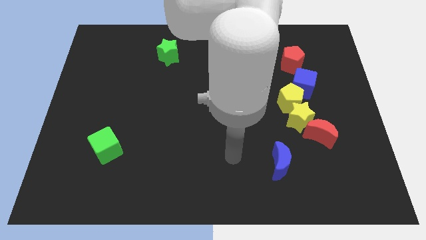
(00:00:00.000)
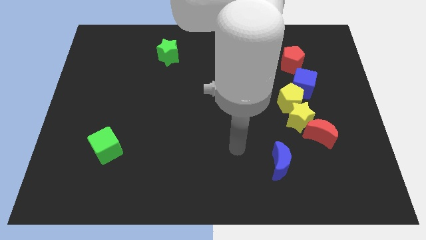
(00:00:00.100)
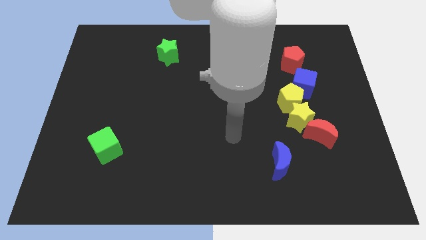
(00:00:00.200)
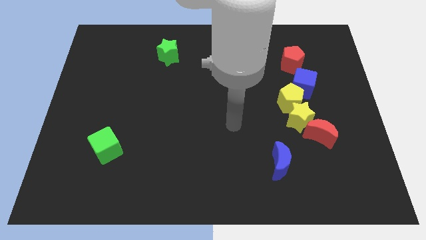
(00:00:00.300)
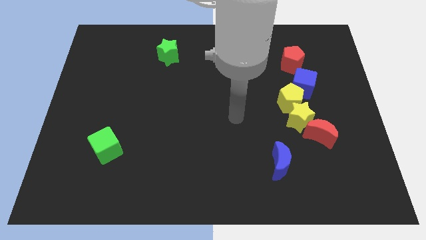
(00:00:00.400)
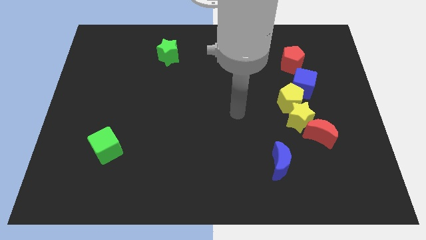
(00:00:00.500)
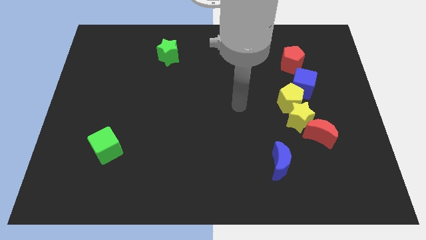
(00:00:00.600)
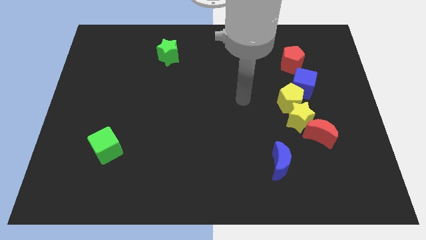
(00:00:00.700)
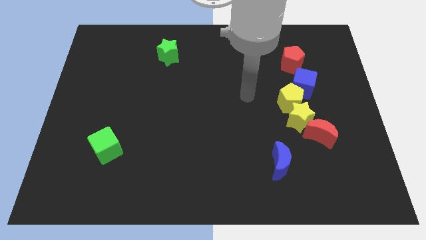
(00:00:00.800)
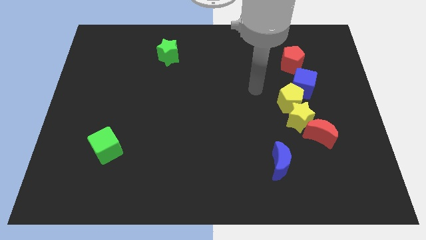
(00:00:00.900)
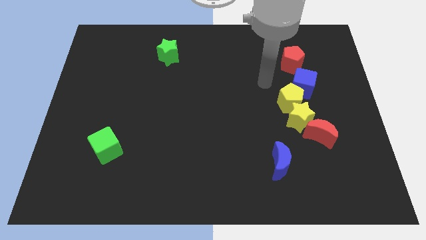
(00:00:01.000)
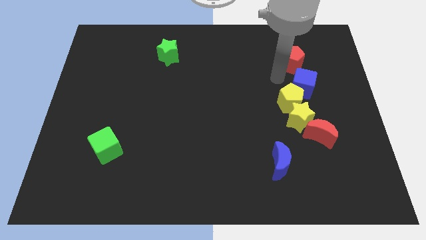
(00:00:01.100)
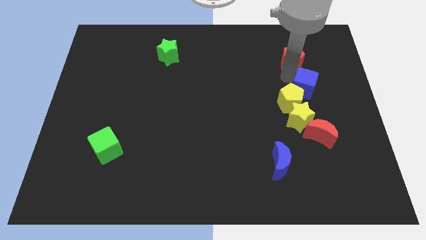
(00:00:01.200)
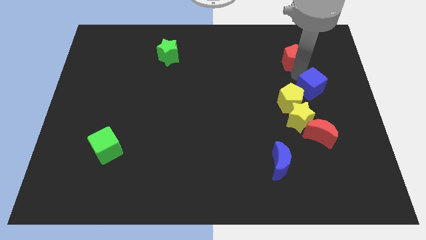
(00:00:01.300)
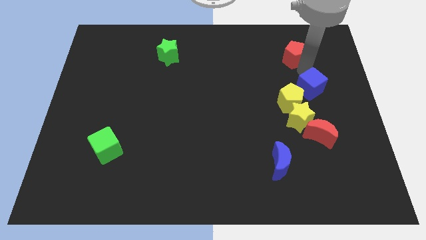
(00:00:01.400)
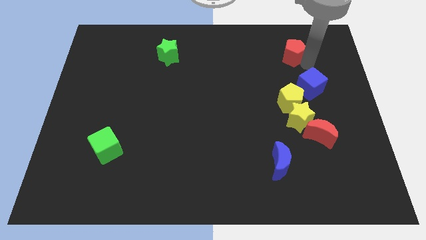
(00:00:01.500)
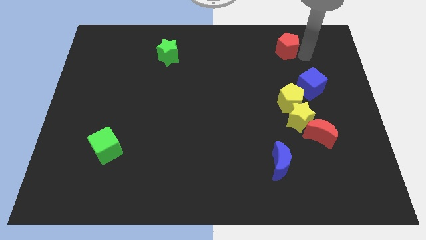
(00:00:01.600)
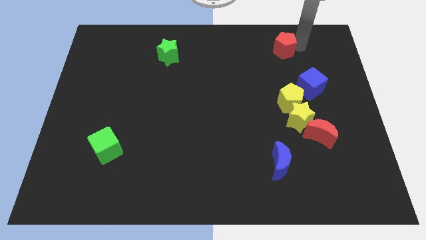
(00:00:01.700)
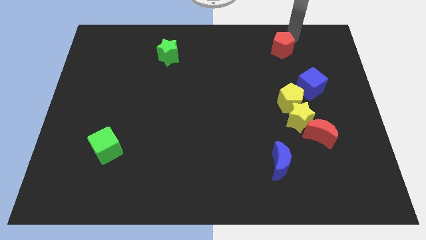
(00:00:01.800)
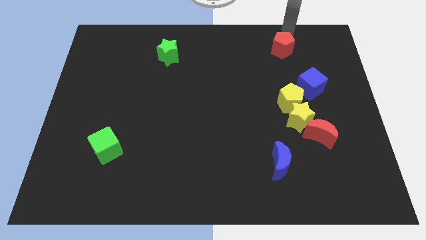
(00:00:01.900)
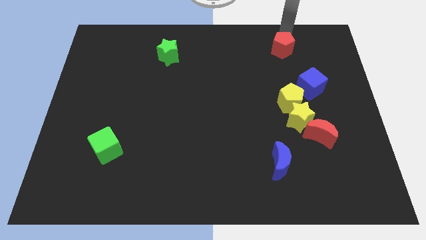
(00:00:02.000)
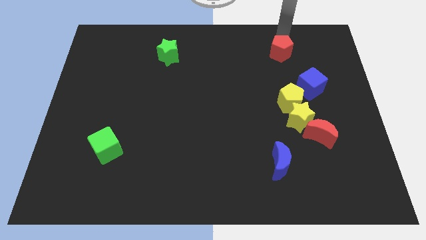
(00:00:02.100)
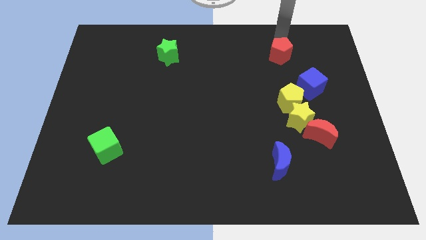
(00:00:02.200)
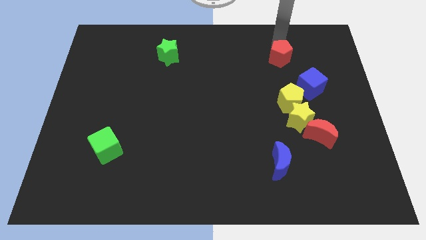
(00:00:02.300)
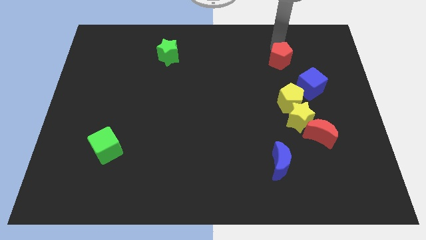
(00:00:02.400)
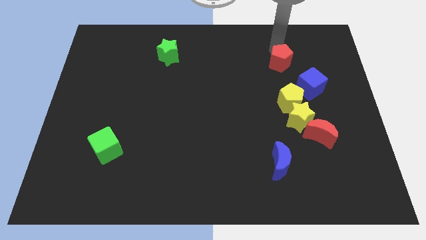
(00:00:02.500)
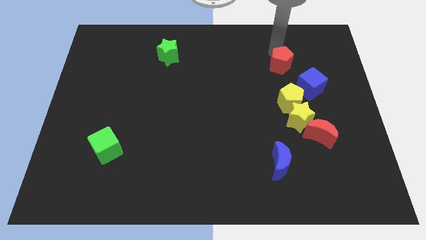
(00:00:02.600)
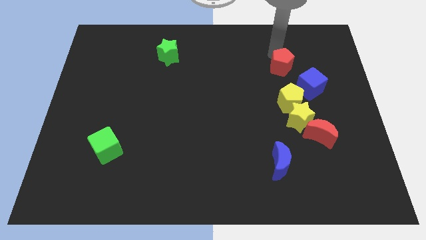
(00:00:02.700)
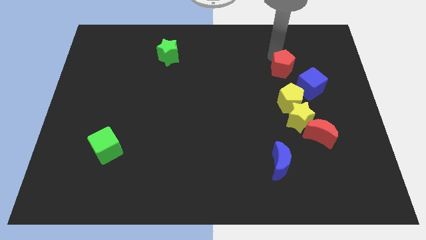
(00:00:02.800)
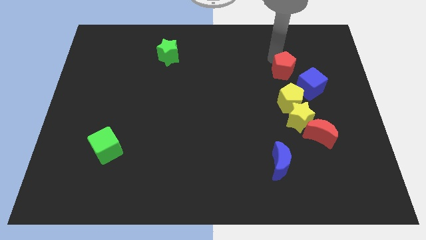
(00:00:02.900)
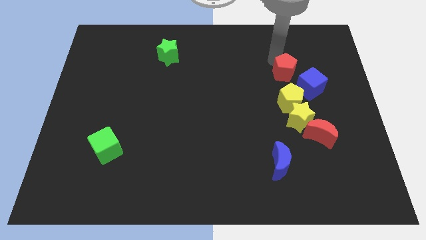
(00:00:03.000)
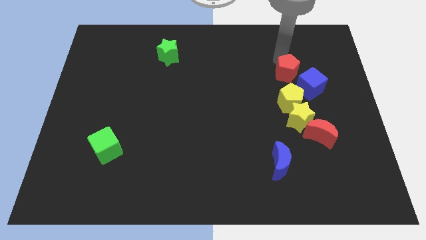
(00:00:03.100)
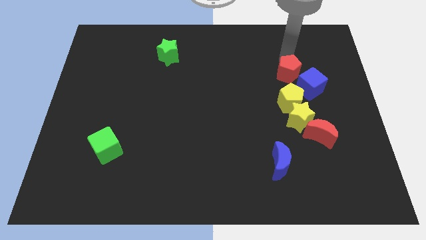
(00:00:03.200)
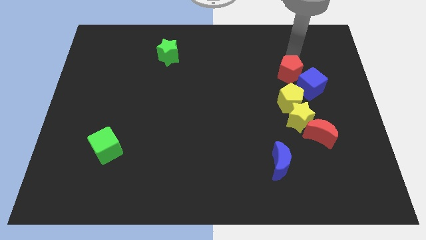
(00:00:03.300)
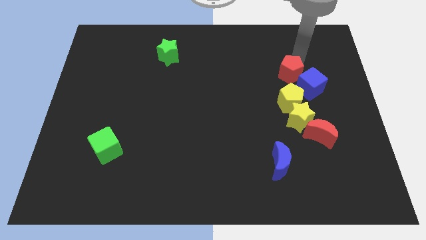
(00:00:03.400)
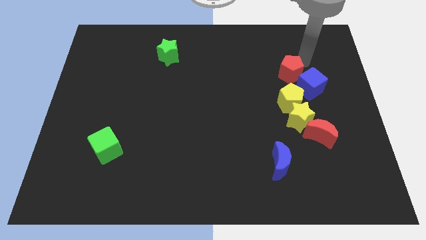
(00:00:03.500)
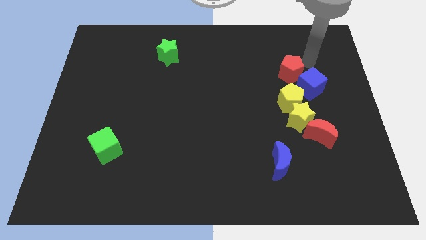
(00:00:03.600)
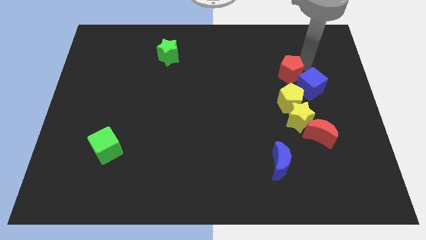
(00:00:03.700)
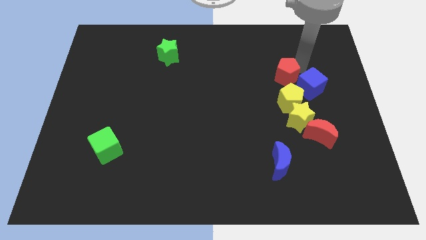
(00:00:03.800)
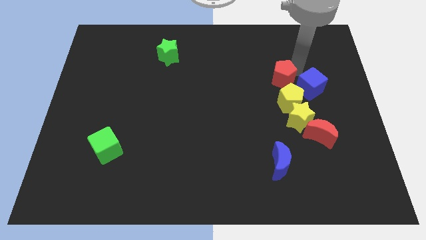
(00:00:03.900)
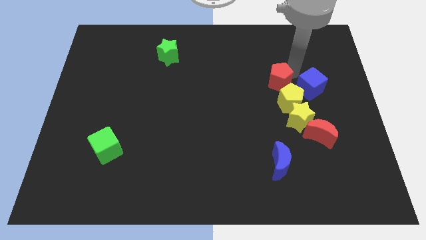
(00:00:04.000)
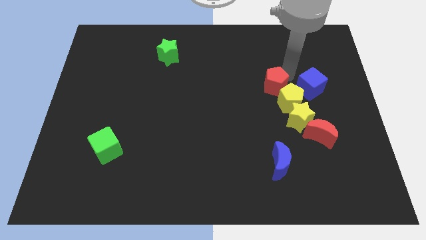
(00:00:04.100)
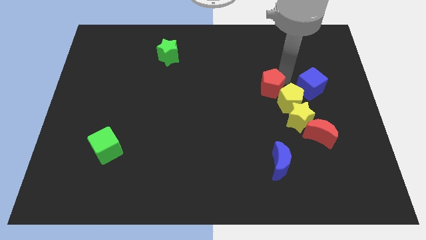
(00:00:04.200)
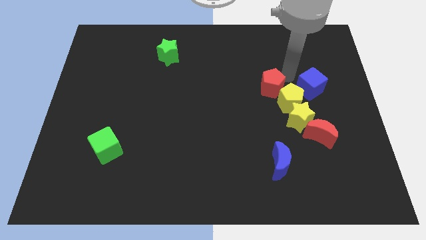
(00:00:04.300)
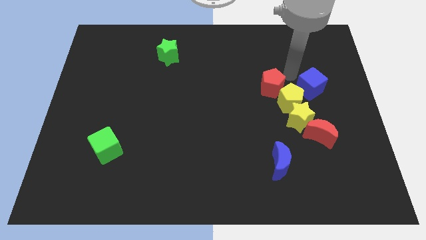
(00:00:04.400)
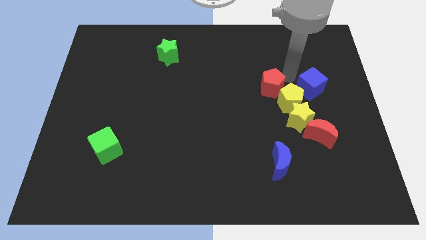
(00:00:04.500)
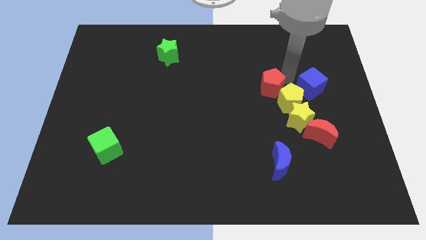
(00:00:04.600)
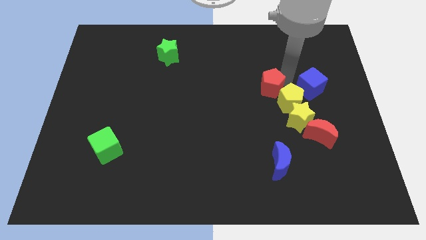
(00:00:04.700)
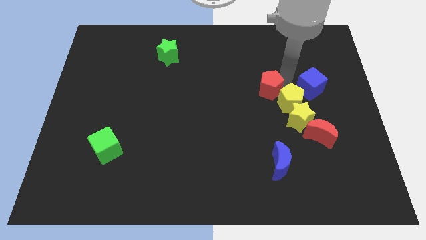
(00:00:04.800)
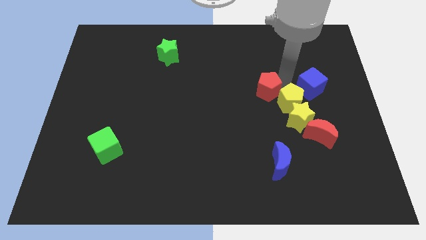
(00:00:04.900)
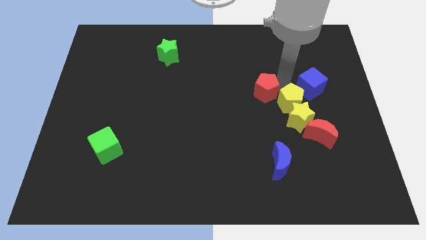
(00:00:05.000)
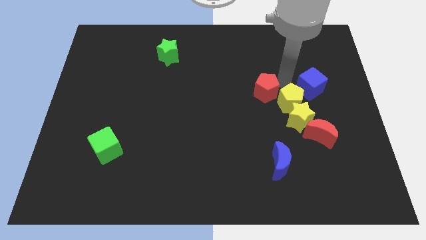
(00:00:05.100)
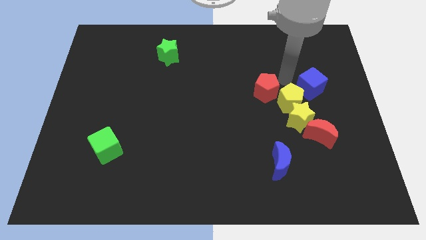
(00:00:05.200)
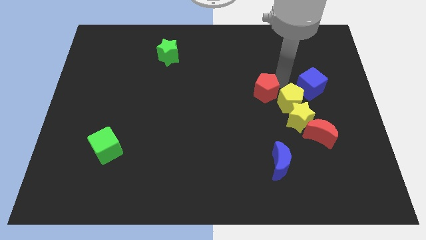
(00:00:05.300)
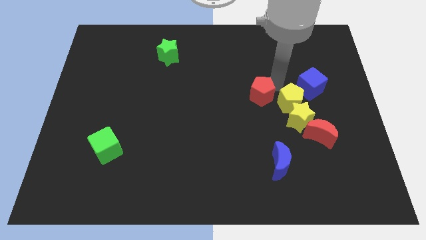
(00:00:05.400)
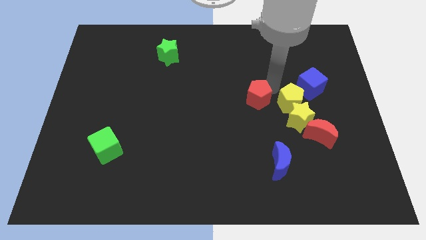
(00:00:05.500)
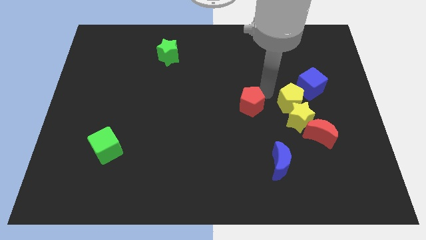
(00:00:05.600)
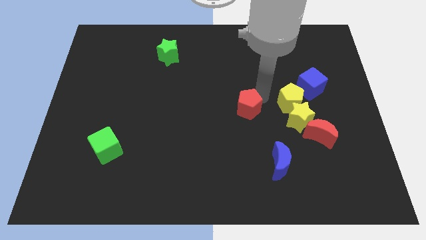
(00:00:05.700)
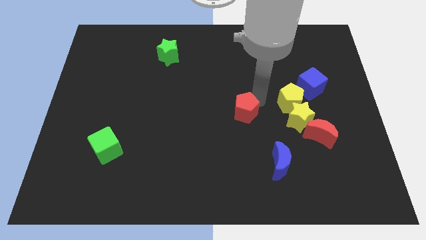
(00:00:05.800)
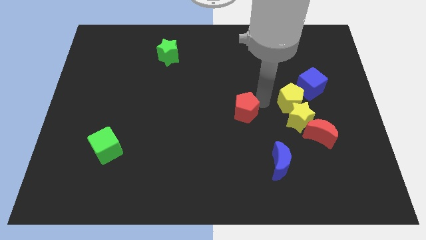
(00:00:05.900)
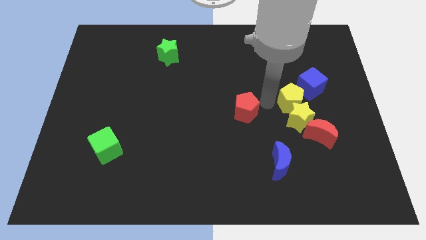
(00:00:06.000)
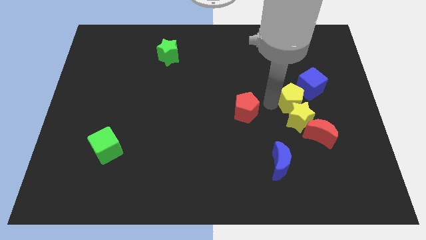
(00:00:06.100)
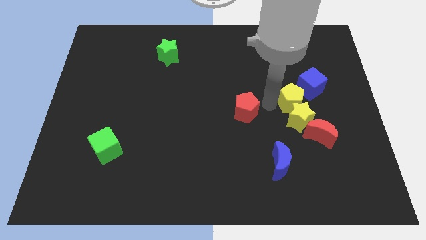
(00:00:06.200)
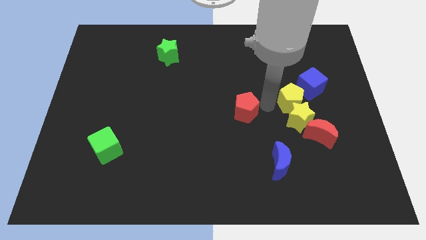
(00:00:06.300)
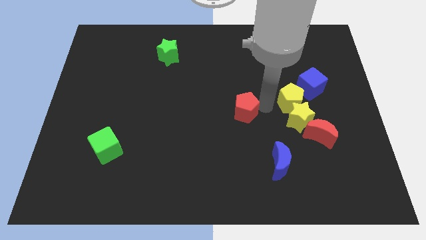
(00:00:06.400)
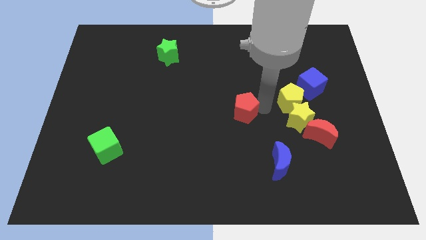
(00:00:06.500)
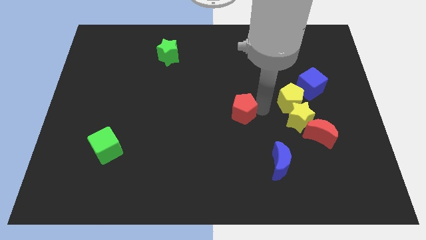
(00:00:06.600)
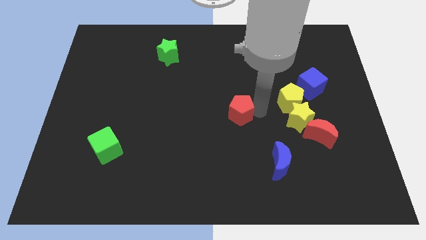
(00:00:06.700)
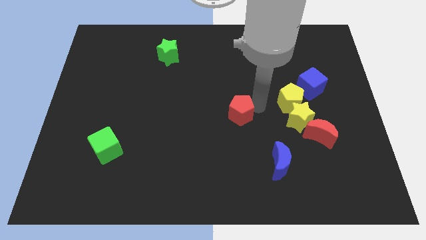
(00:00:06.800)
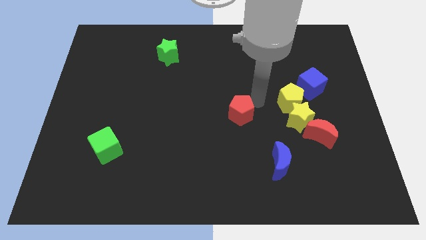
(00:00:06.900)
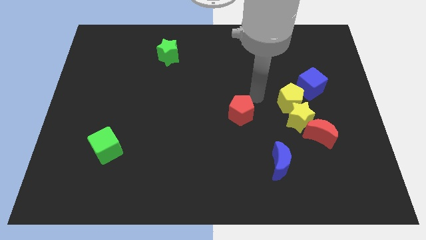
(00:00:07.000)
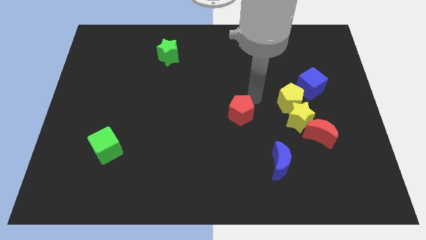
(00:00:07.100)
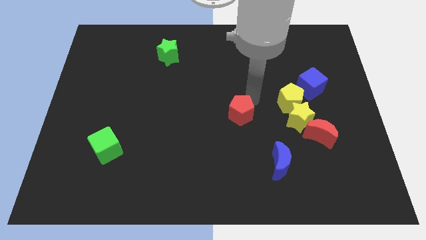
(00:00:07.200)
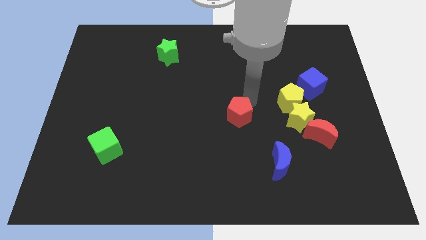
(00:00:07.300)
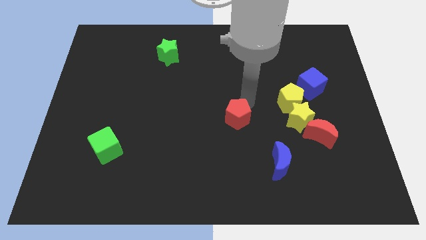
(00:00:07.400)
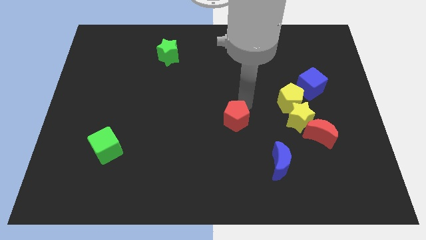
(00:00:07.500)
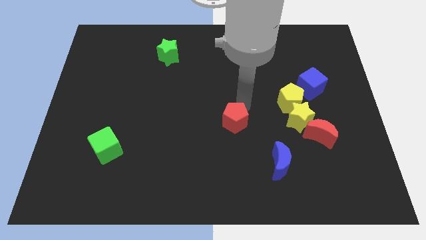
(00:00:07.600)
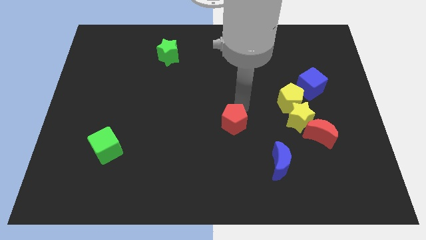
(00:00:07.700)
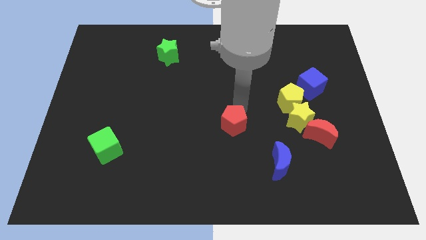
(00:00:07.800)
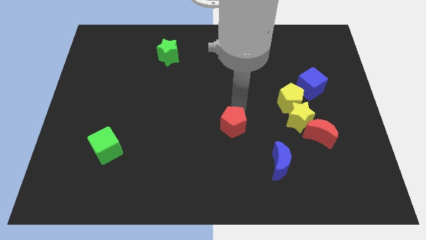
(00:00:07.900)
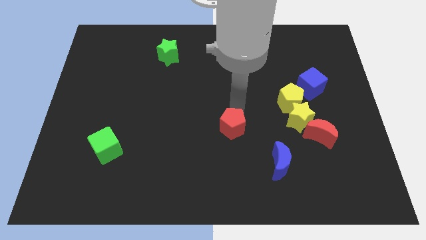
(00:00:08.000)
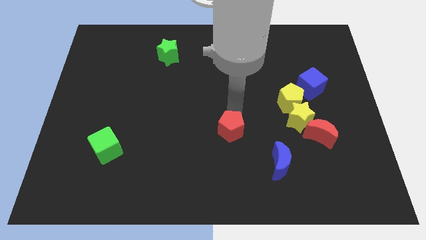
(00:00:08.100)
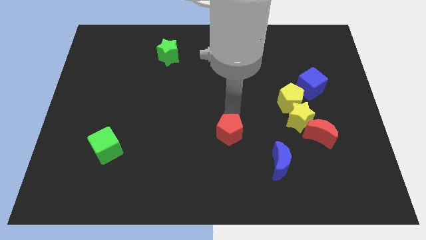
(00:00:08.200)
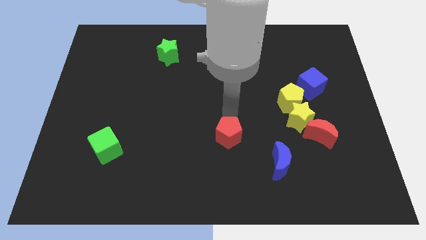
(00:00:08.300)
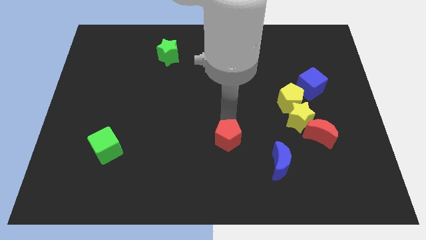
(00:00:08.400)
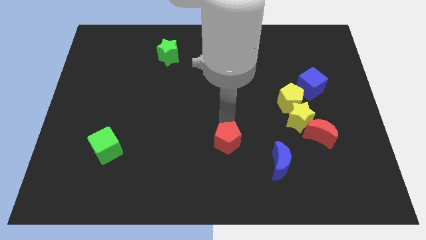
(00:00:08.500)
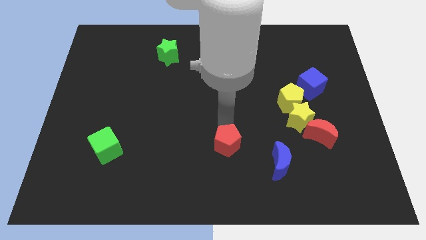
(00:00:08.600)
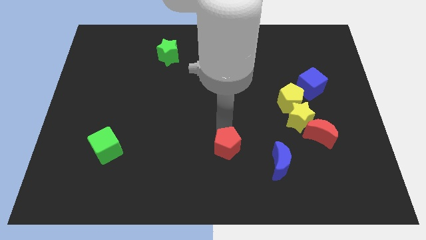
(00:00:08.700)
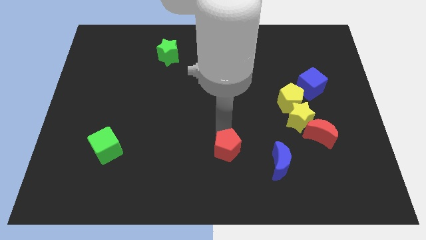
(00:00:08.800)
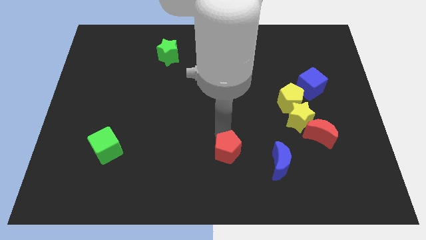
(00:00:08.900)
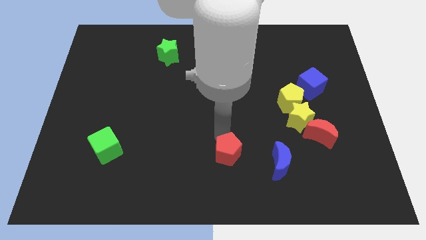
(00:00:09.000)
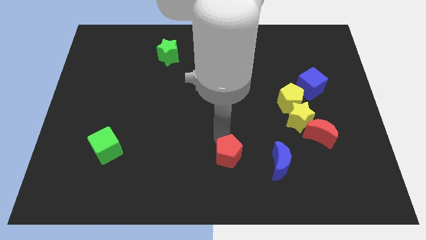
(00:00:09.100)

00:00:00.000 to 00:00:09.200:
push the red pentagon to the bottom
